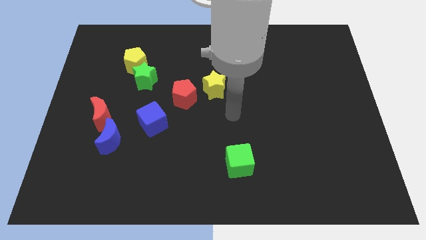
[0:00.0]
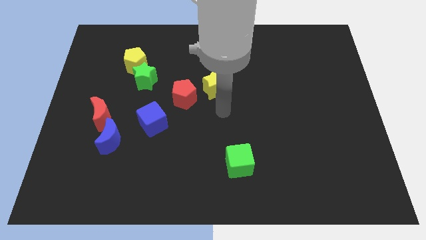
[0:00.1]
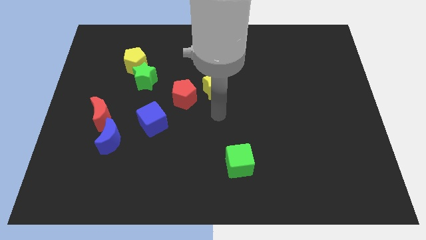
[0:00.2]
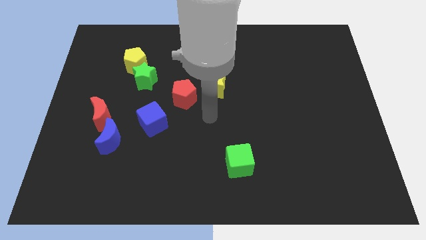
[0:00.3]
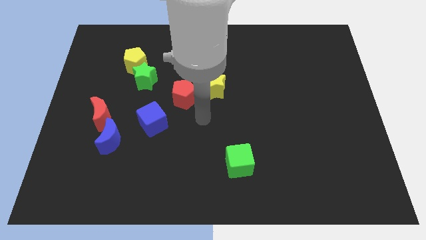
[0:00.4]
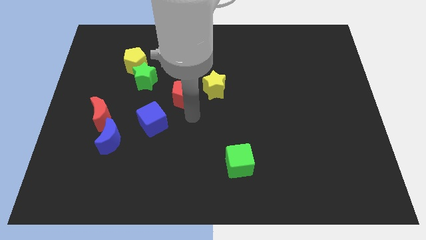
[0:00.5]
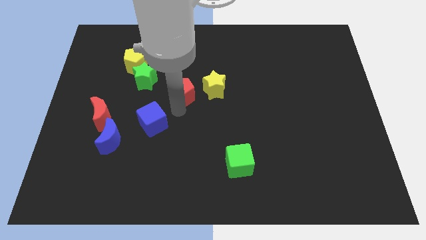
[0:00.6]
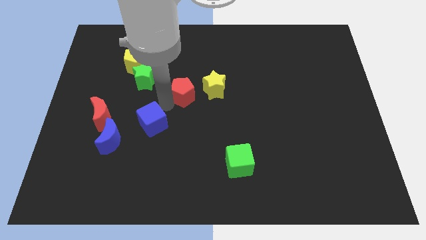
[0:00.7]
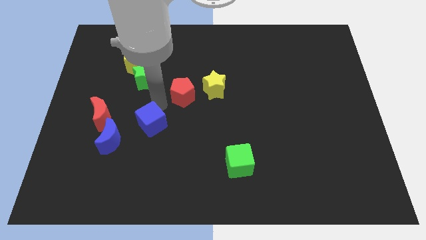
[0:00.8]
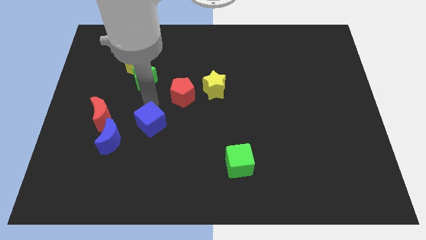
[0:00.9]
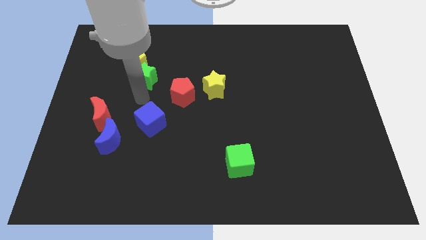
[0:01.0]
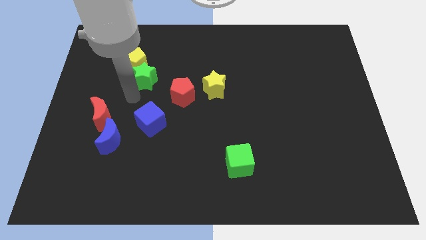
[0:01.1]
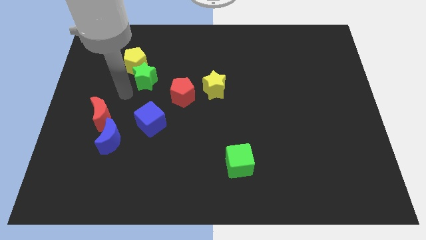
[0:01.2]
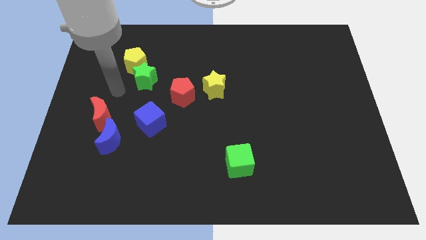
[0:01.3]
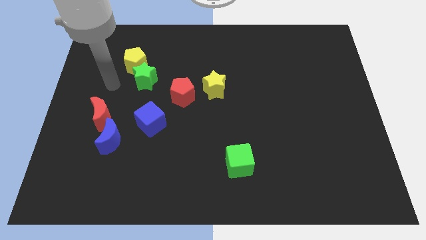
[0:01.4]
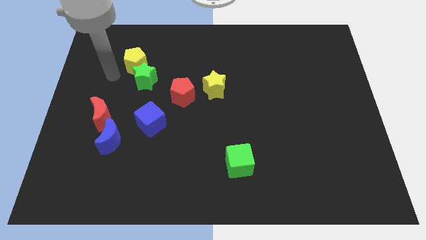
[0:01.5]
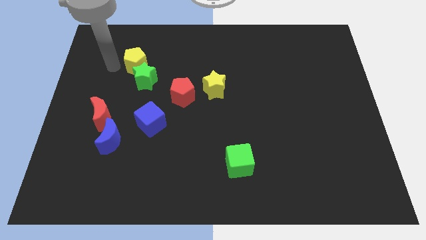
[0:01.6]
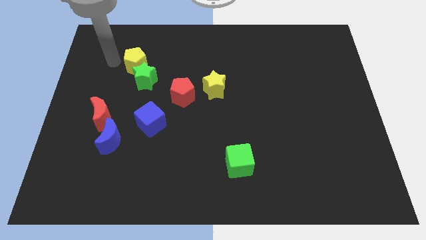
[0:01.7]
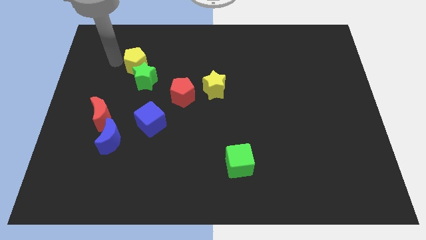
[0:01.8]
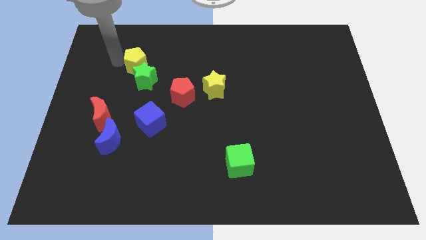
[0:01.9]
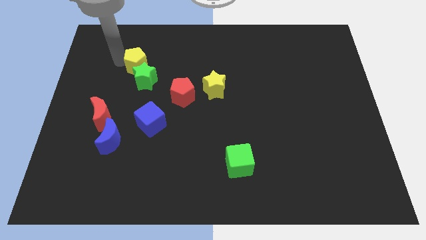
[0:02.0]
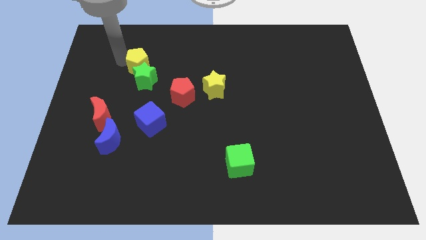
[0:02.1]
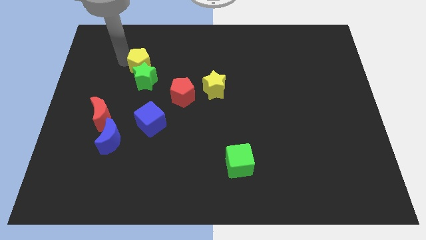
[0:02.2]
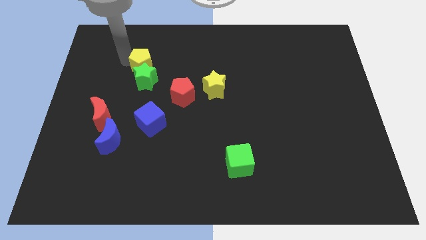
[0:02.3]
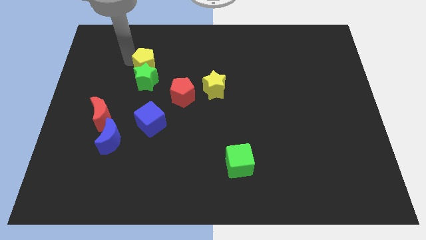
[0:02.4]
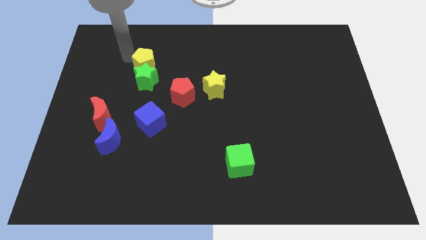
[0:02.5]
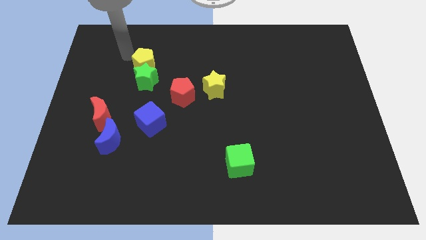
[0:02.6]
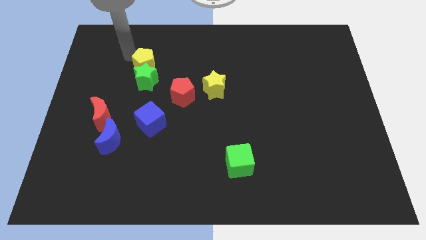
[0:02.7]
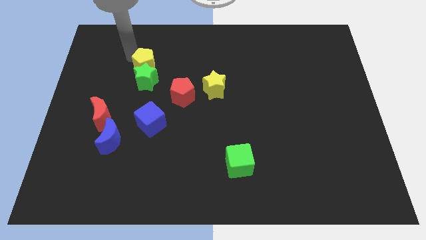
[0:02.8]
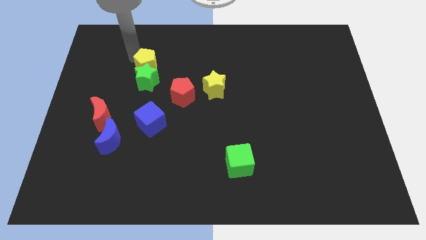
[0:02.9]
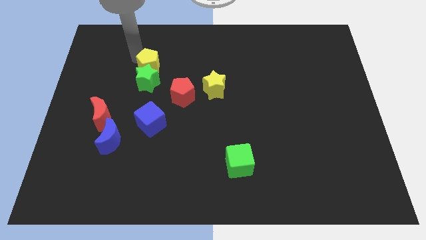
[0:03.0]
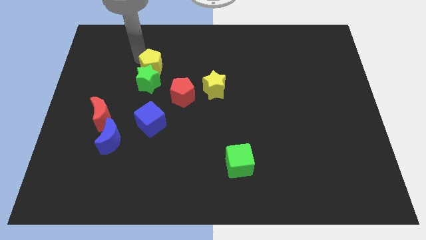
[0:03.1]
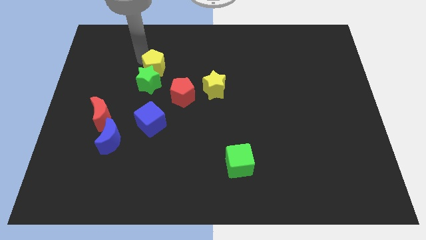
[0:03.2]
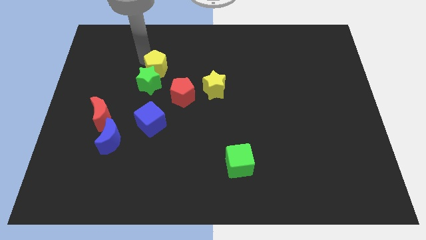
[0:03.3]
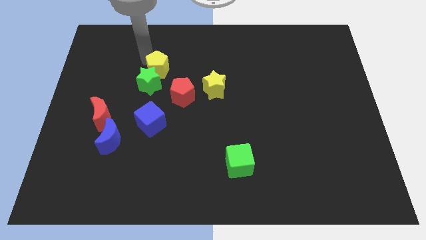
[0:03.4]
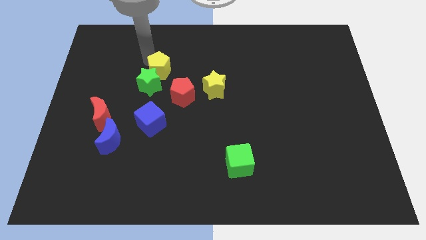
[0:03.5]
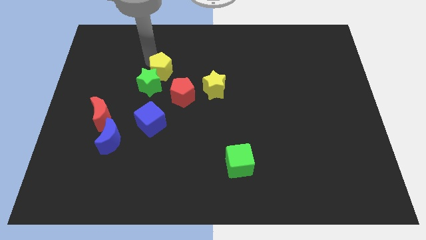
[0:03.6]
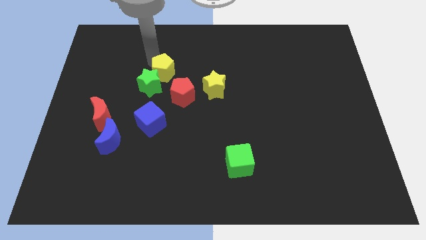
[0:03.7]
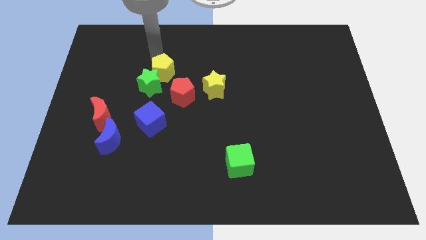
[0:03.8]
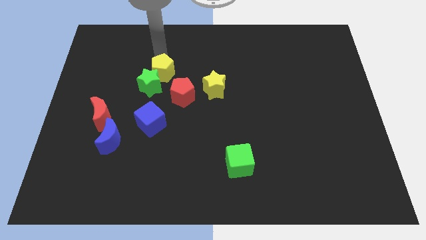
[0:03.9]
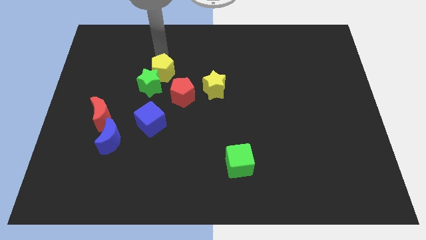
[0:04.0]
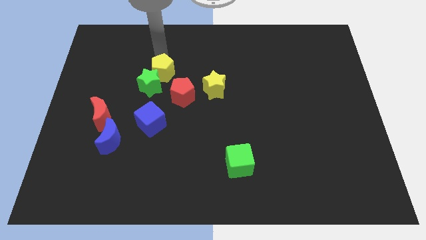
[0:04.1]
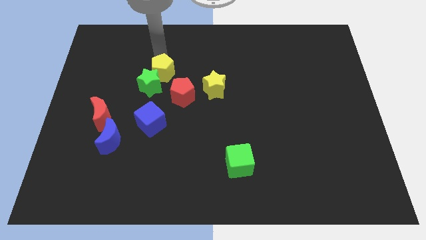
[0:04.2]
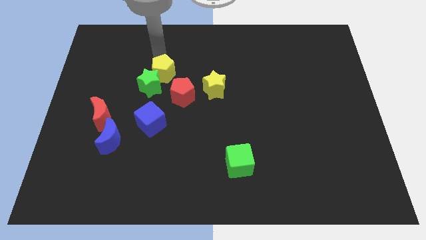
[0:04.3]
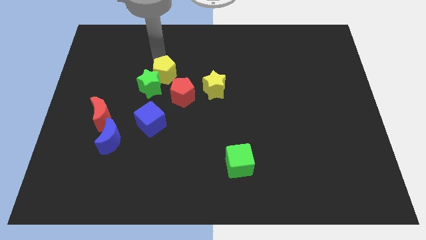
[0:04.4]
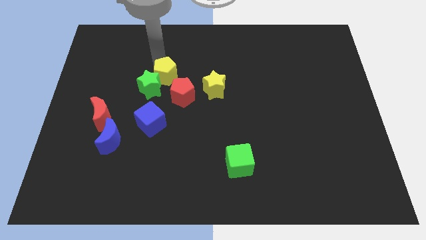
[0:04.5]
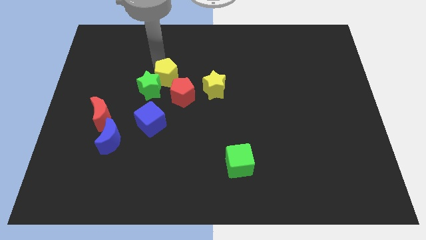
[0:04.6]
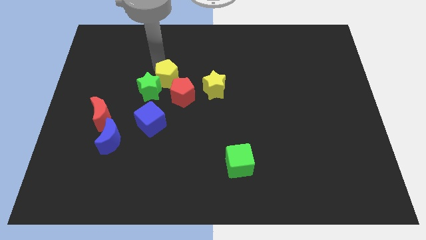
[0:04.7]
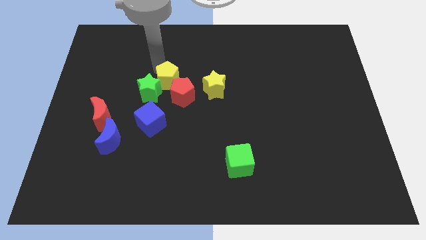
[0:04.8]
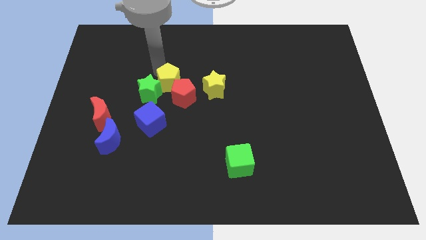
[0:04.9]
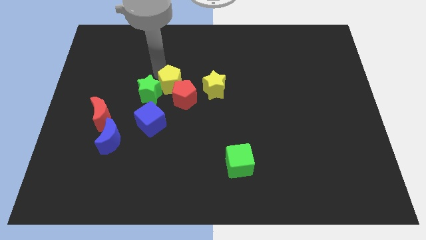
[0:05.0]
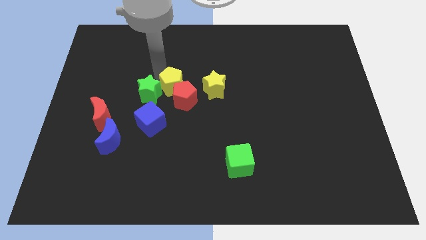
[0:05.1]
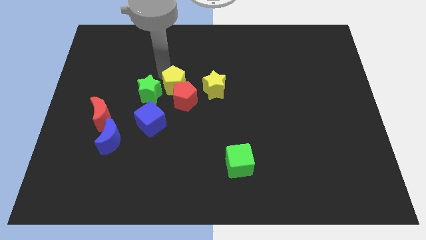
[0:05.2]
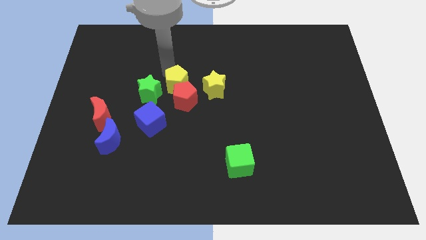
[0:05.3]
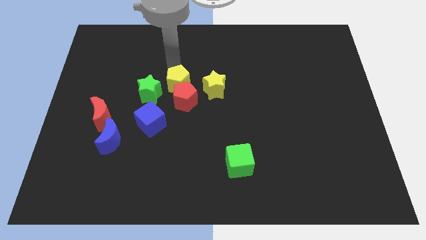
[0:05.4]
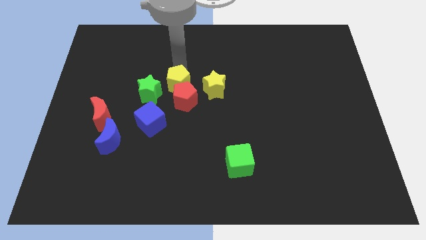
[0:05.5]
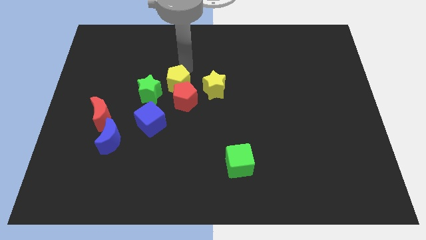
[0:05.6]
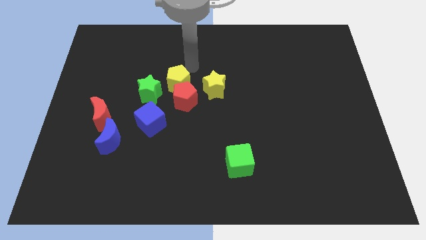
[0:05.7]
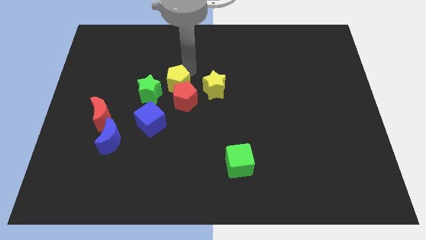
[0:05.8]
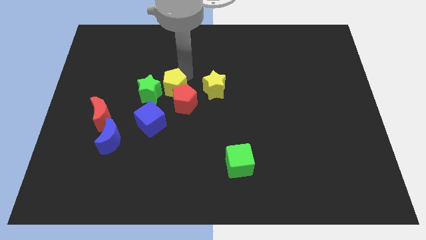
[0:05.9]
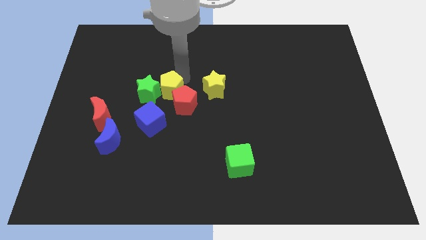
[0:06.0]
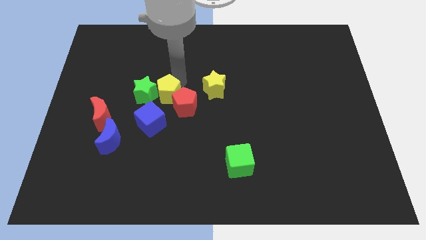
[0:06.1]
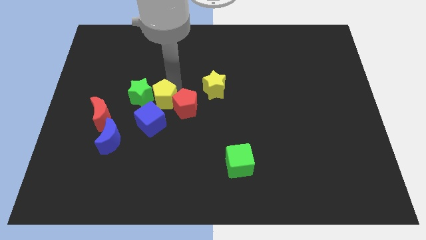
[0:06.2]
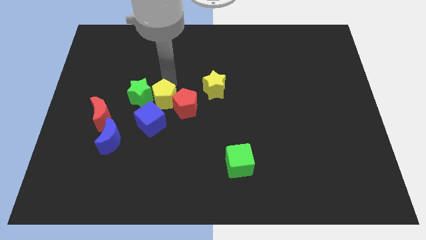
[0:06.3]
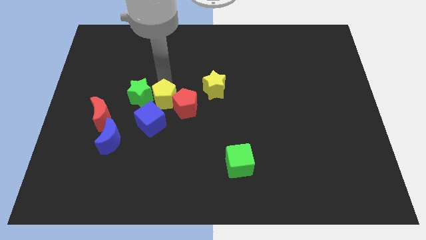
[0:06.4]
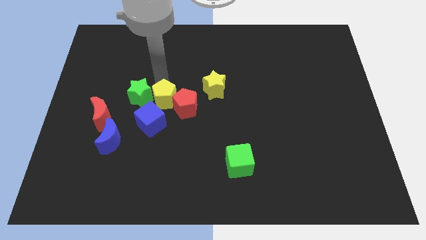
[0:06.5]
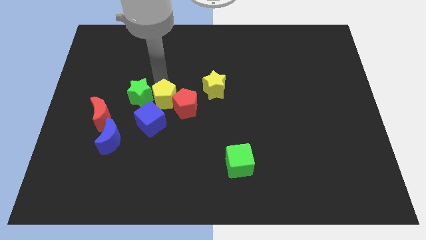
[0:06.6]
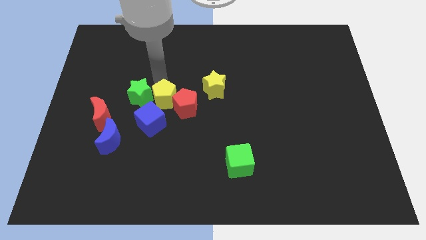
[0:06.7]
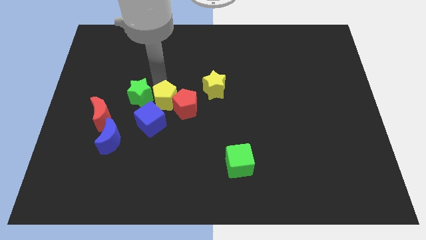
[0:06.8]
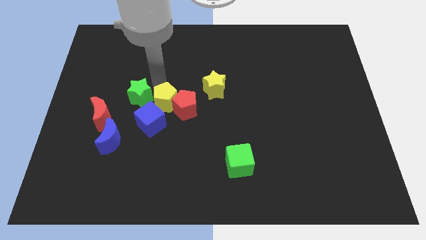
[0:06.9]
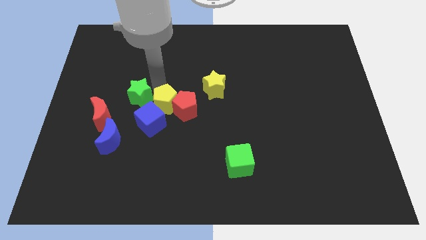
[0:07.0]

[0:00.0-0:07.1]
move the yellow pentagon just right of the red moon

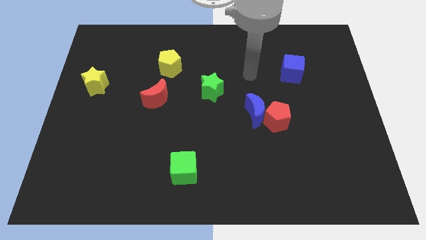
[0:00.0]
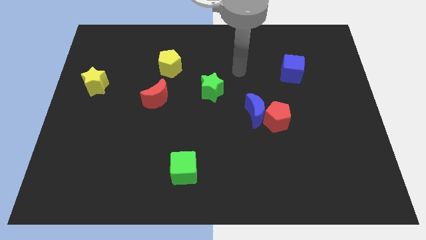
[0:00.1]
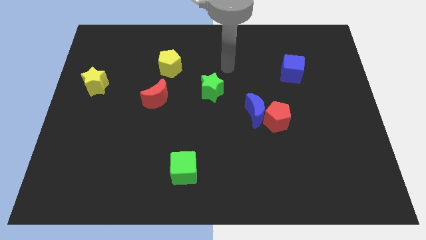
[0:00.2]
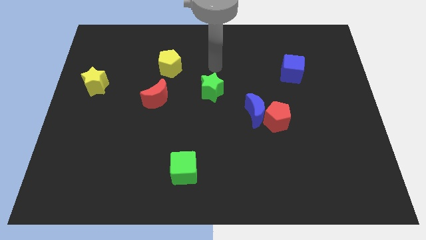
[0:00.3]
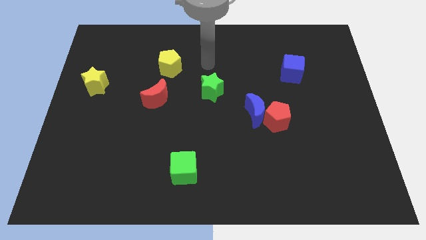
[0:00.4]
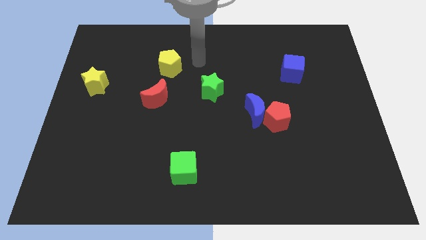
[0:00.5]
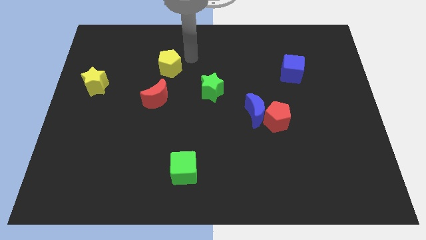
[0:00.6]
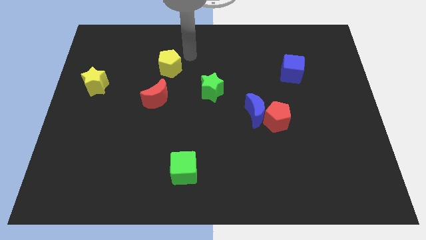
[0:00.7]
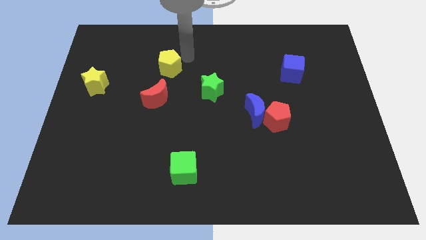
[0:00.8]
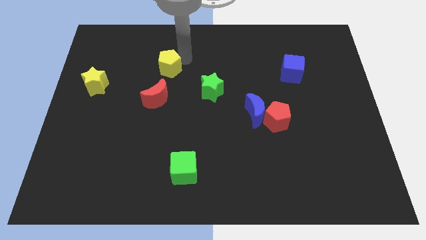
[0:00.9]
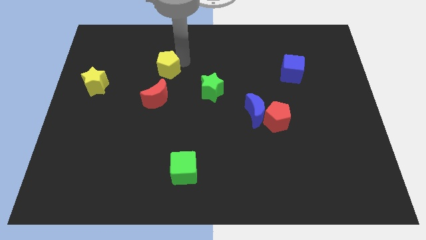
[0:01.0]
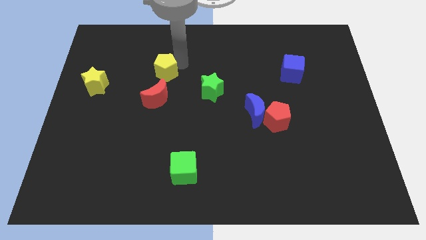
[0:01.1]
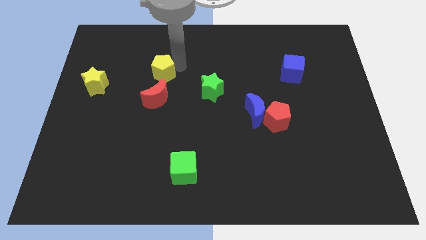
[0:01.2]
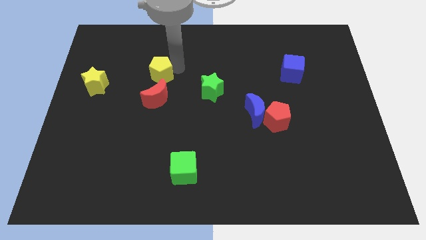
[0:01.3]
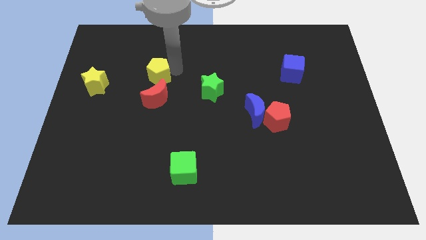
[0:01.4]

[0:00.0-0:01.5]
put the yellow pentagon to the right side of the yellow star
